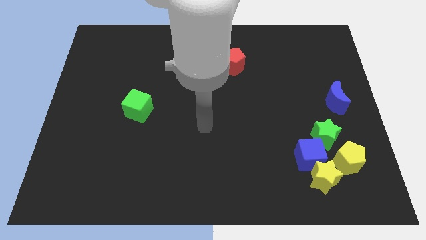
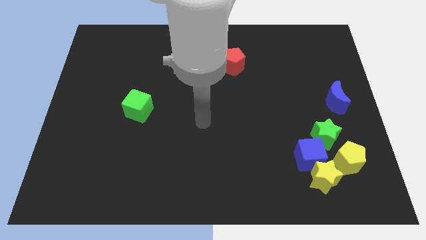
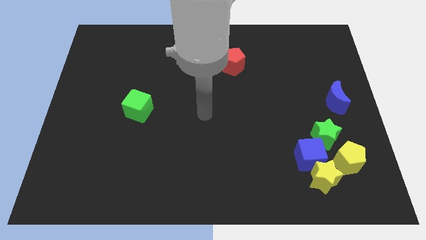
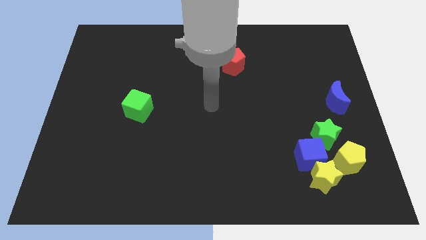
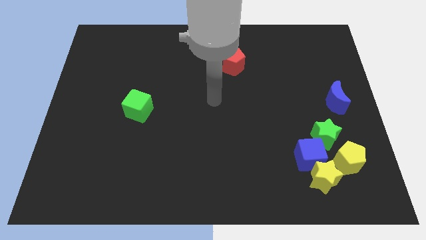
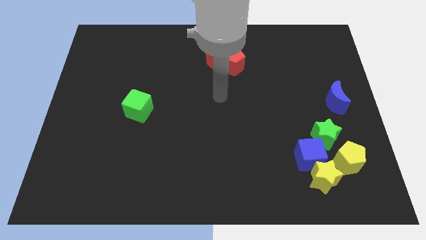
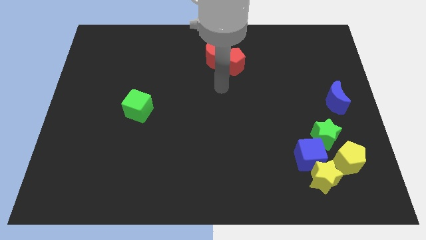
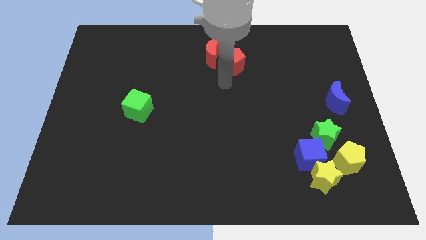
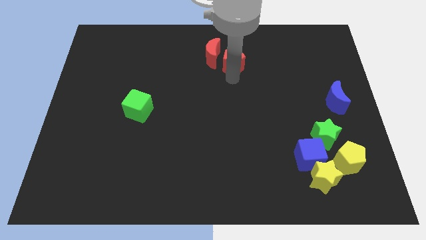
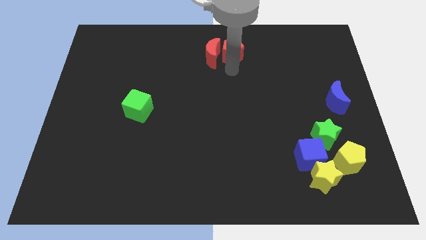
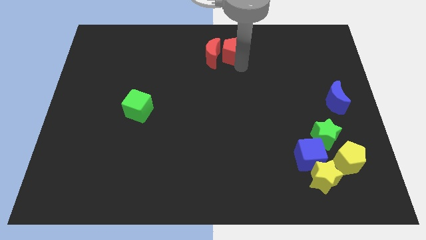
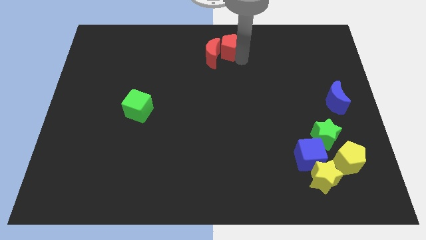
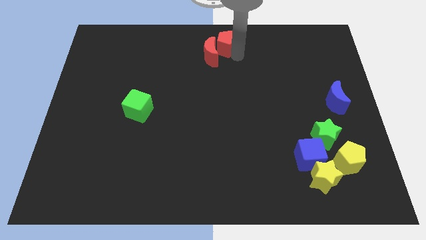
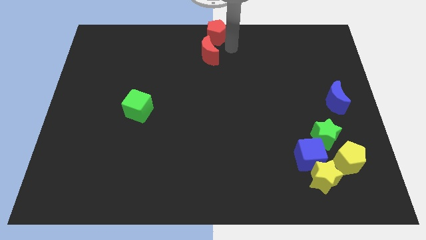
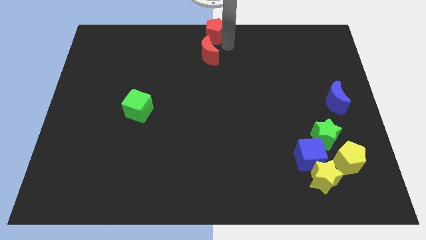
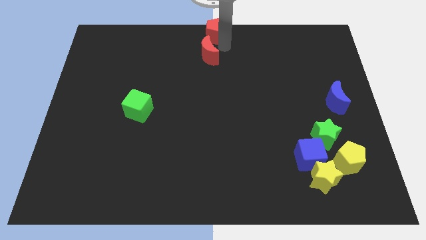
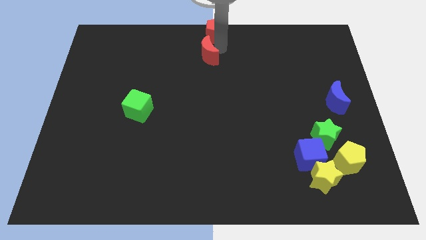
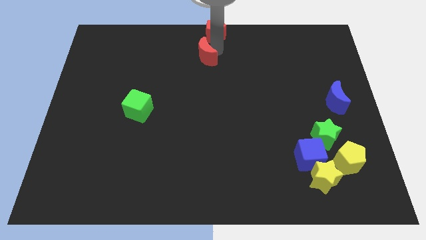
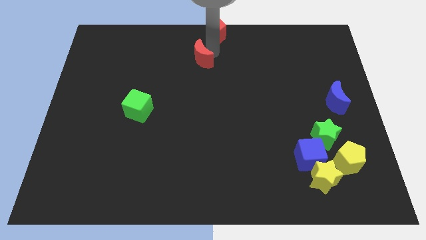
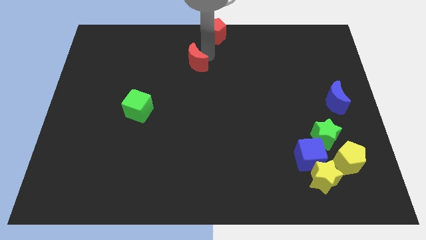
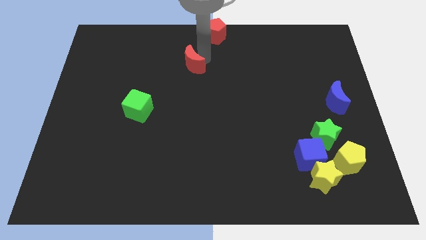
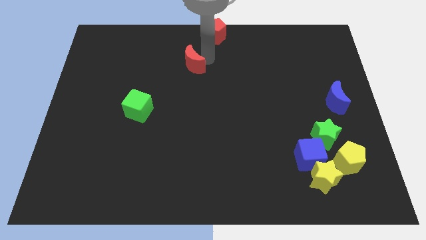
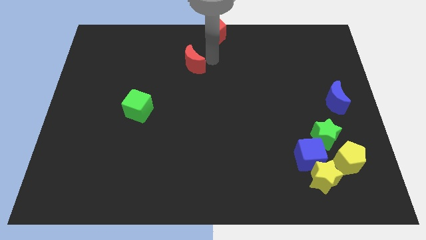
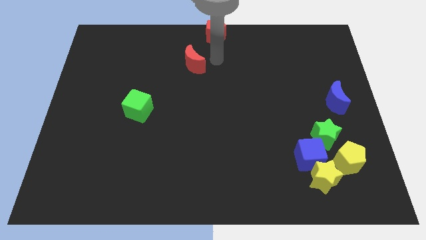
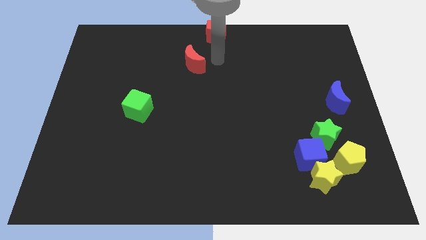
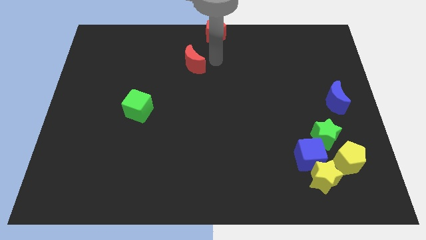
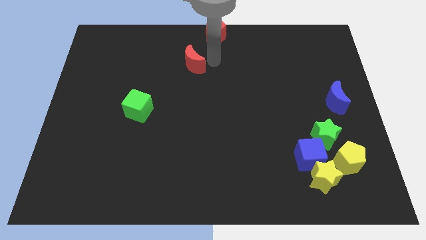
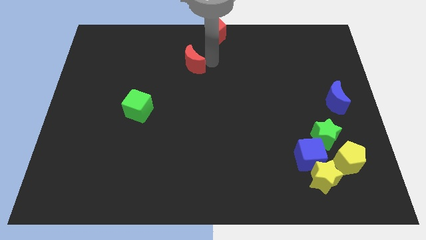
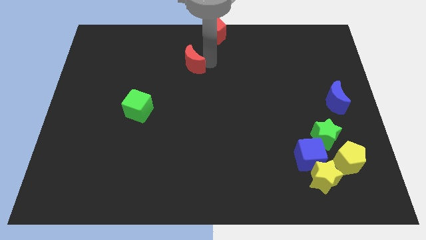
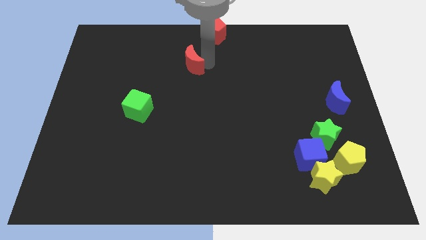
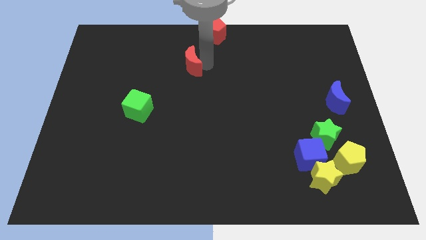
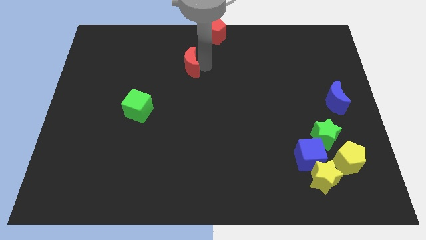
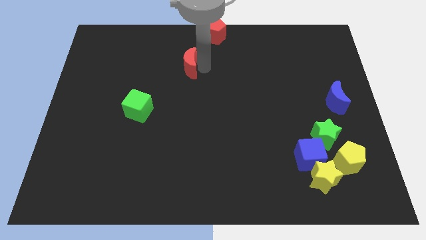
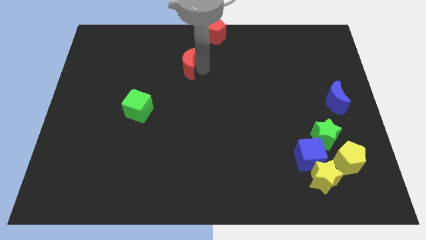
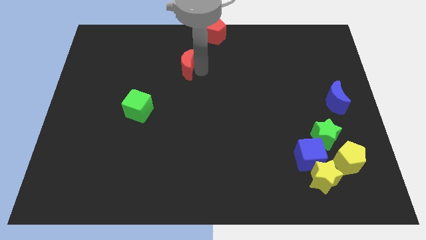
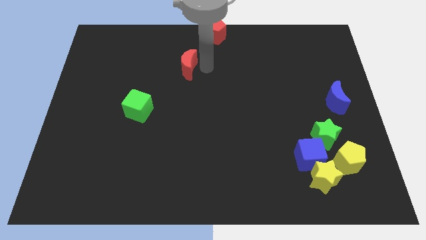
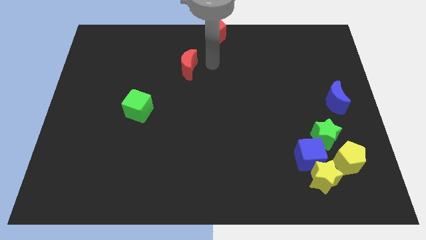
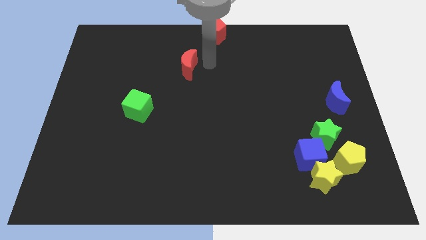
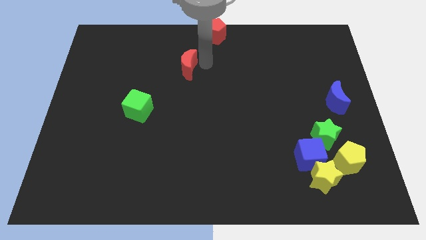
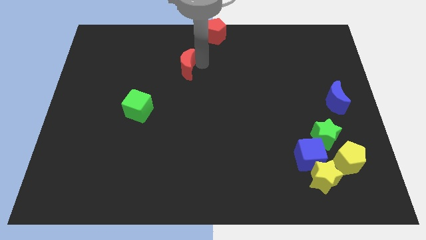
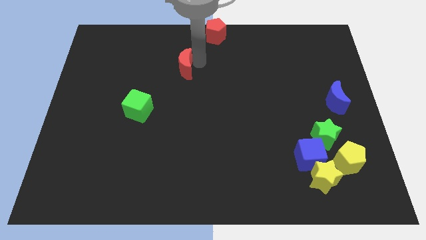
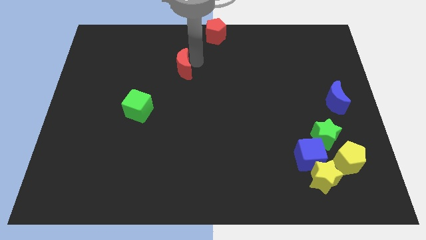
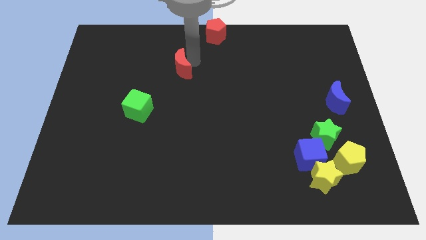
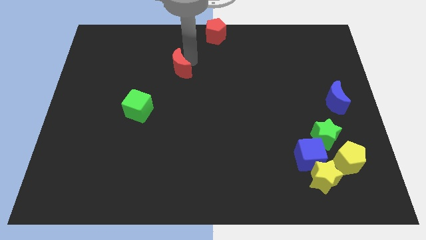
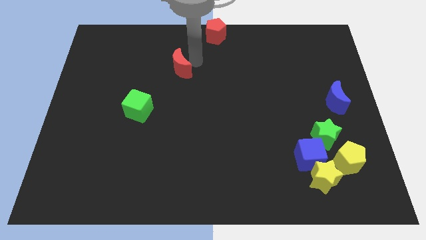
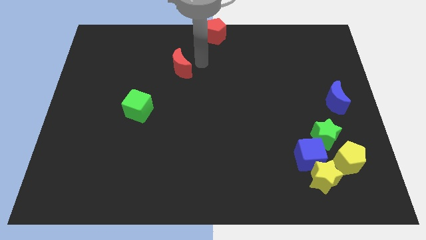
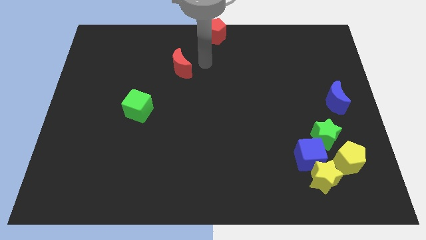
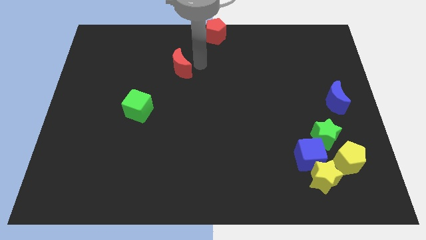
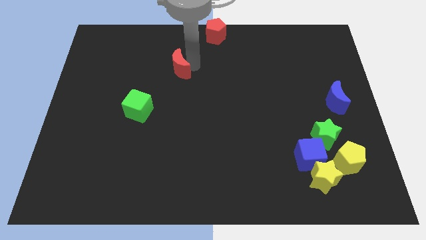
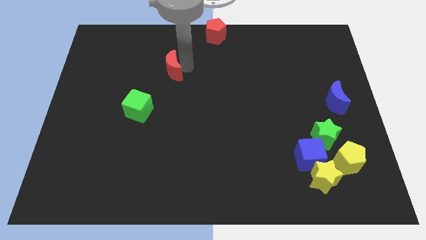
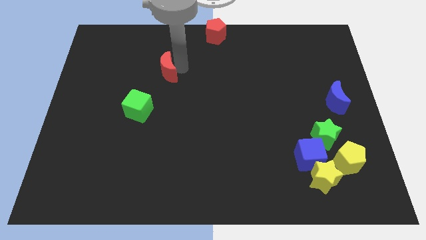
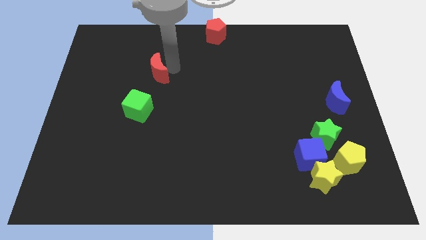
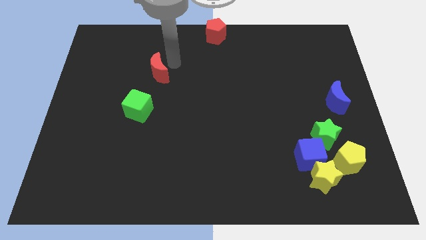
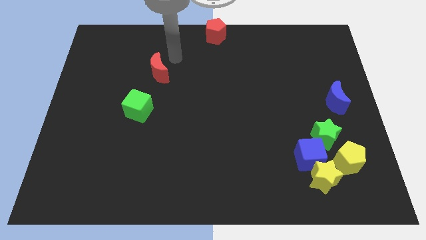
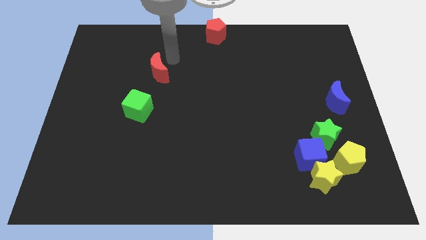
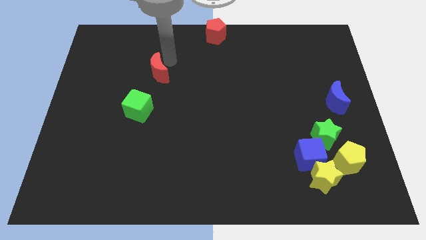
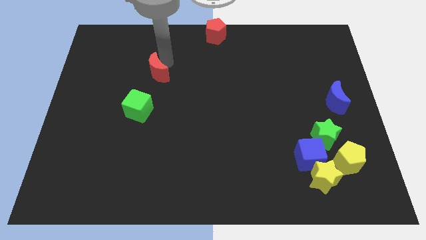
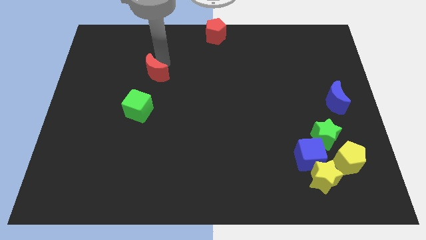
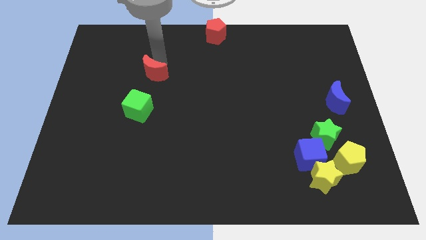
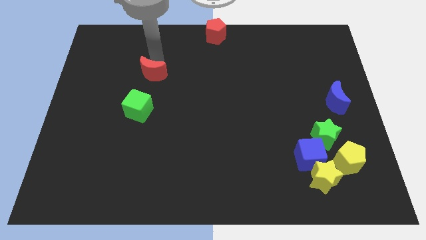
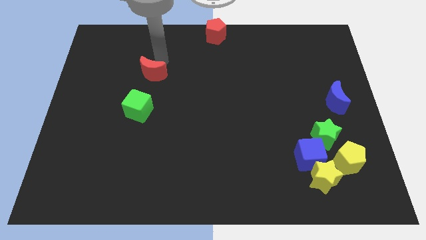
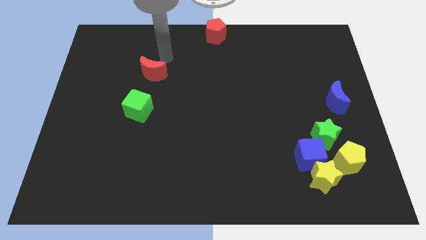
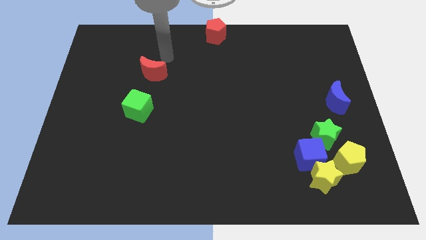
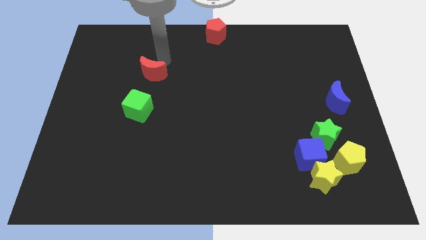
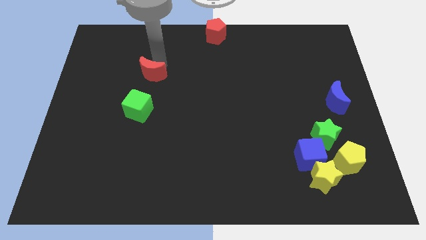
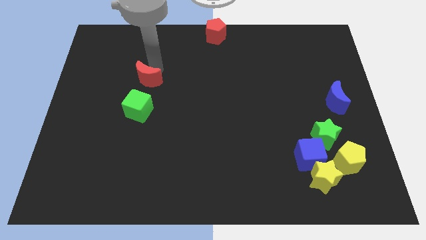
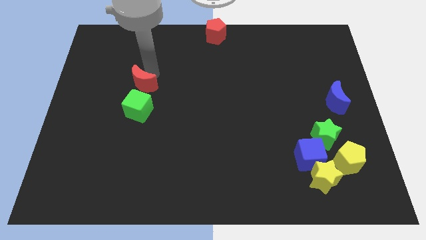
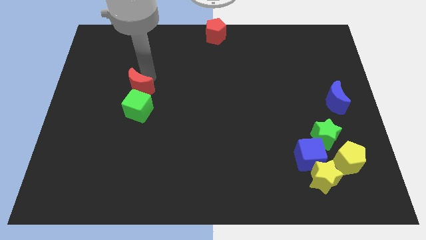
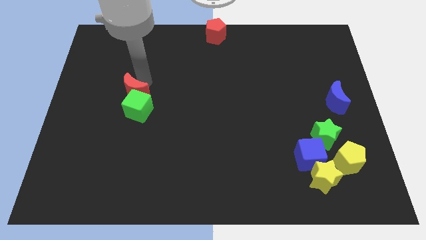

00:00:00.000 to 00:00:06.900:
move the red moon down and then left

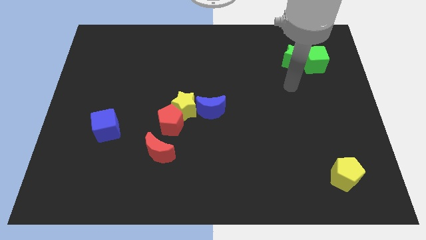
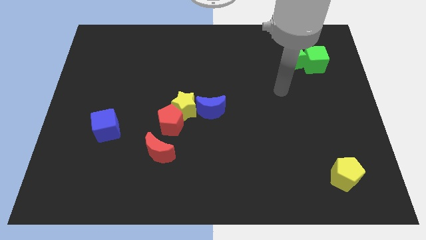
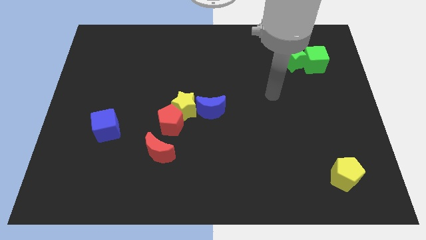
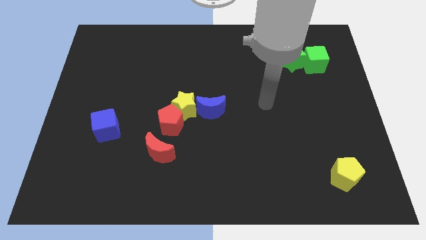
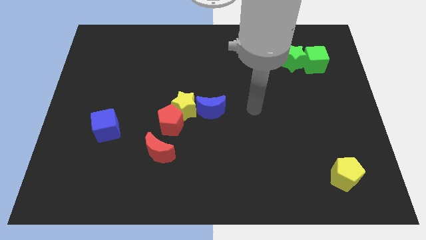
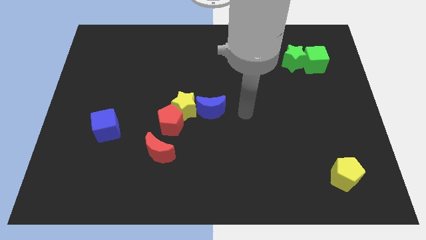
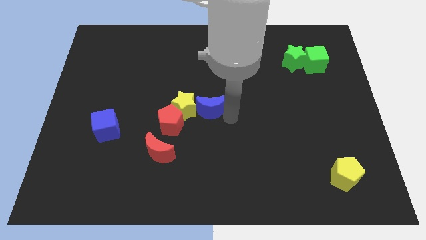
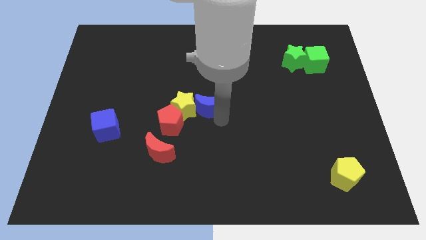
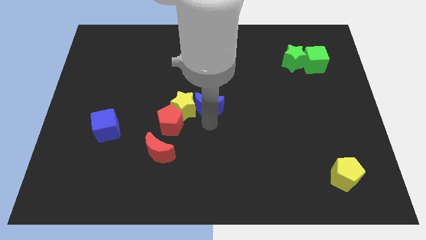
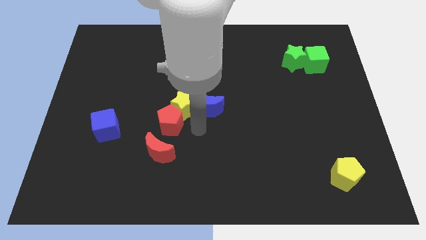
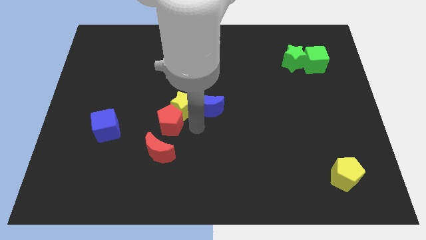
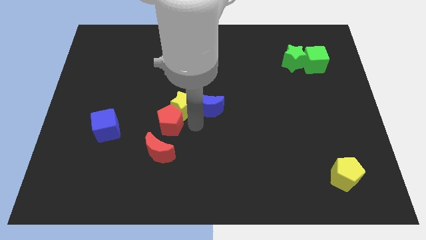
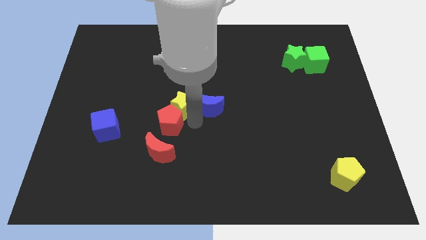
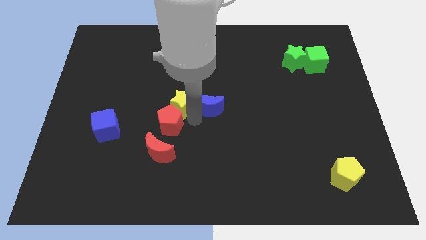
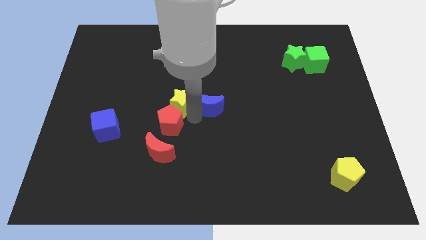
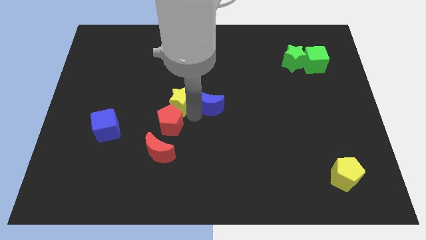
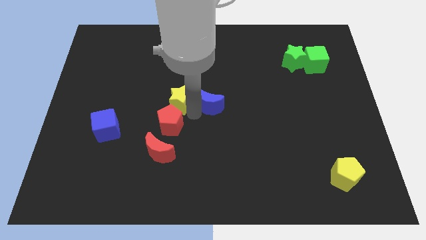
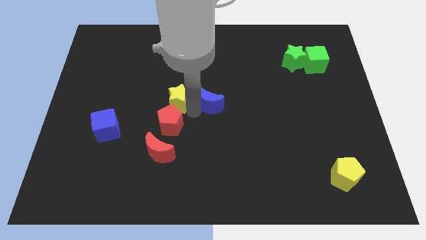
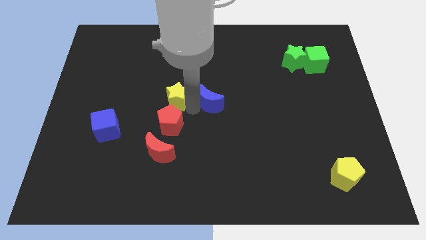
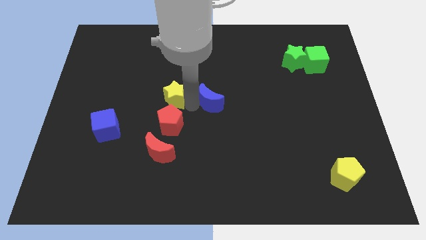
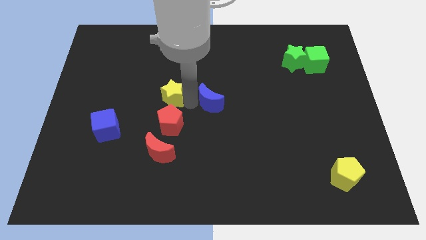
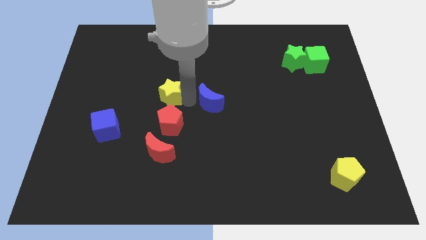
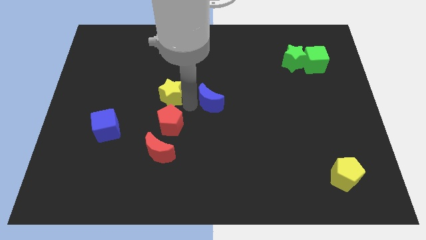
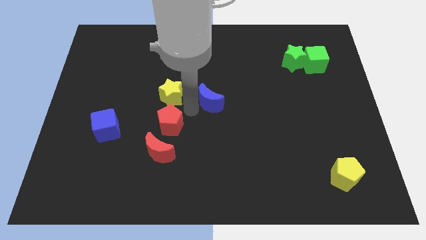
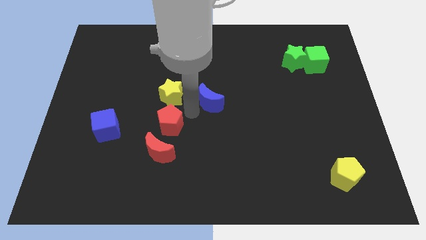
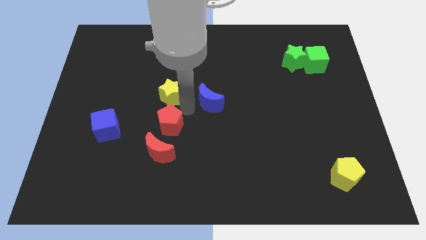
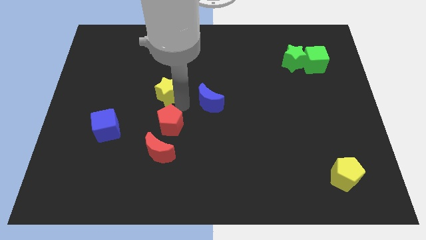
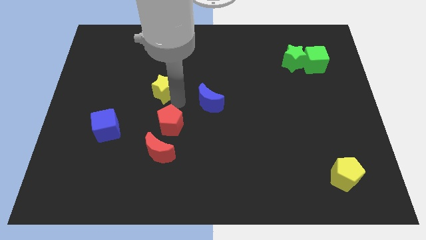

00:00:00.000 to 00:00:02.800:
slightly push the yellow star up and then left
